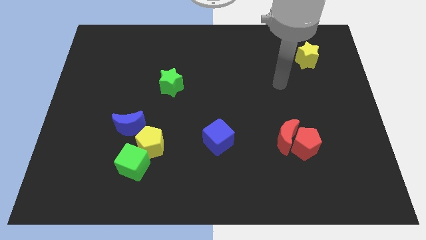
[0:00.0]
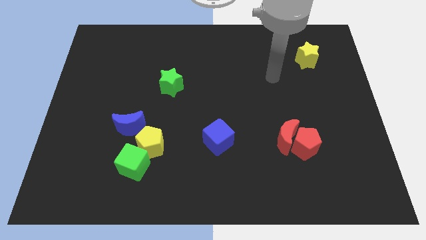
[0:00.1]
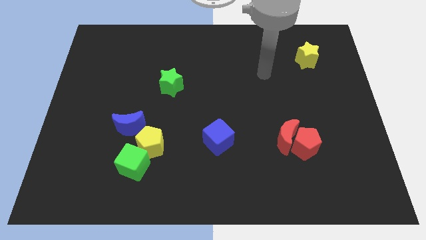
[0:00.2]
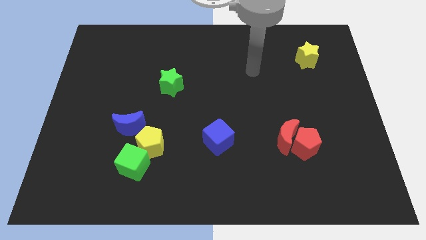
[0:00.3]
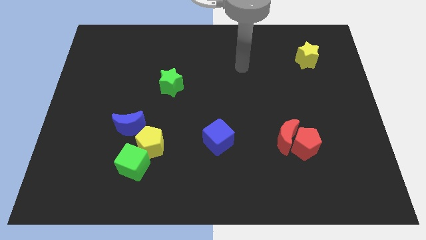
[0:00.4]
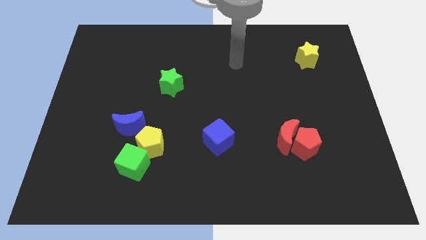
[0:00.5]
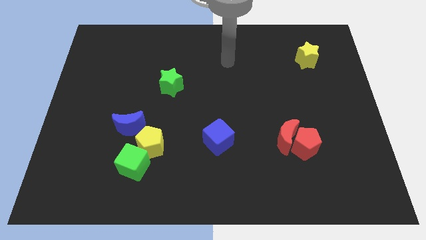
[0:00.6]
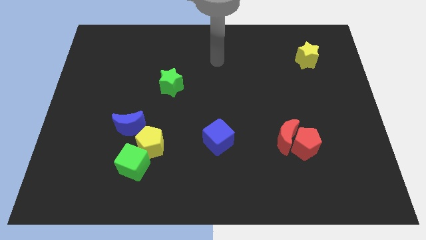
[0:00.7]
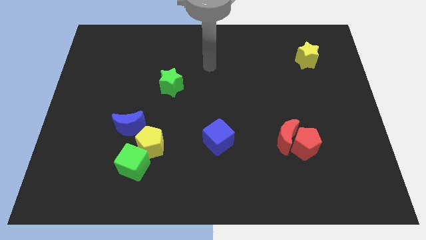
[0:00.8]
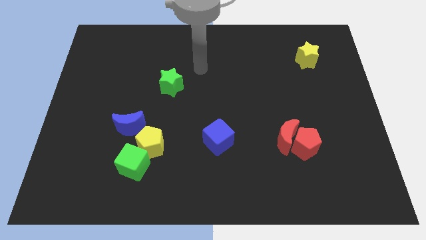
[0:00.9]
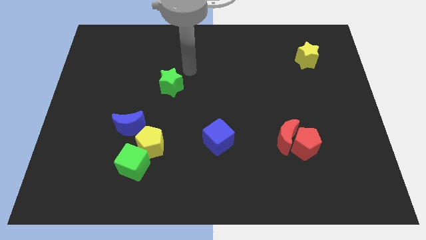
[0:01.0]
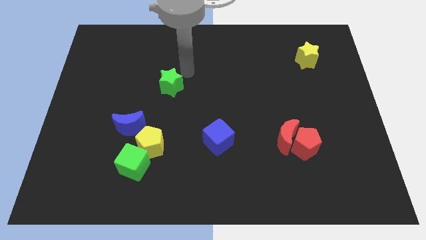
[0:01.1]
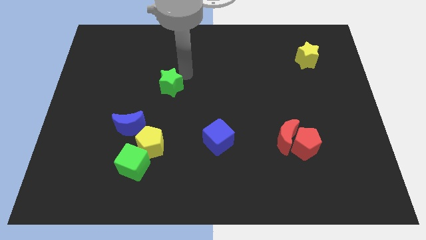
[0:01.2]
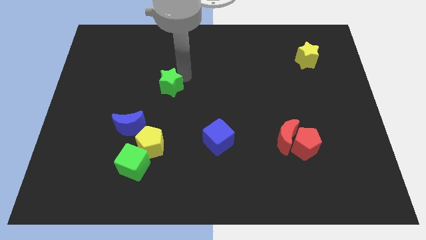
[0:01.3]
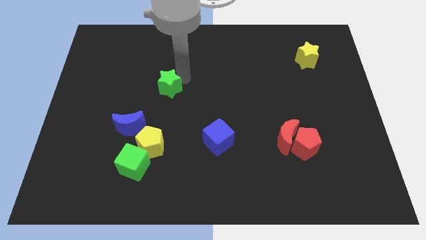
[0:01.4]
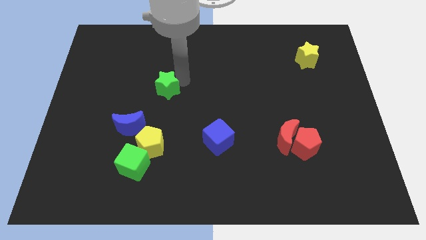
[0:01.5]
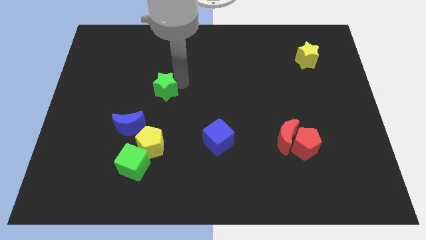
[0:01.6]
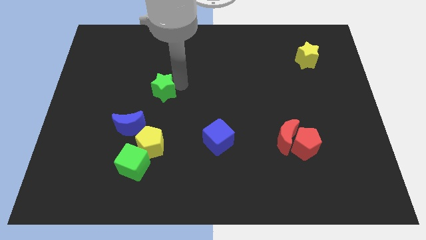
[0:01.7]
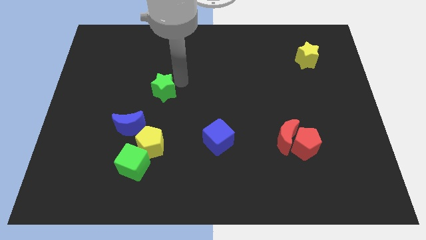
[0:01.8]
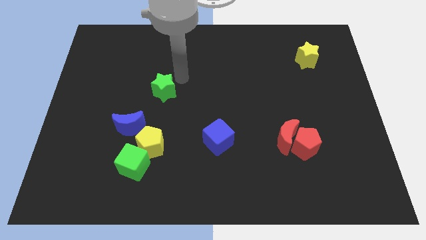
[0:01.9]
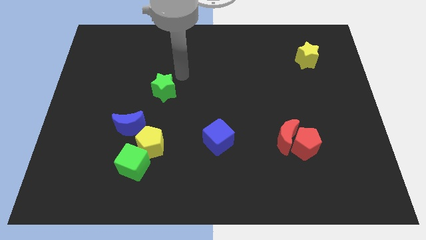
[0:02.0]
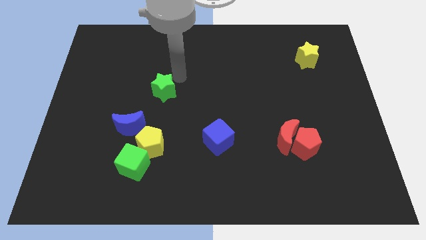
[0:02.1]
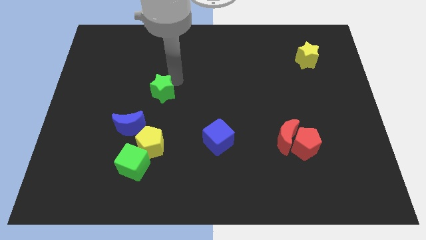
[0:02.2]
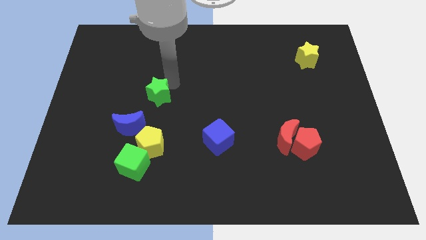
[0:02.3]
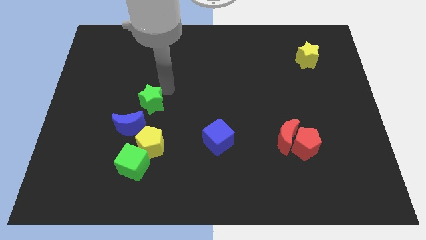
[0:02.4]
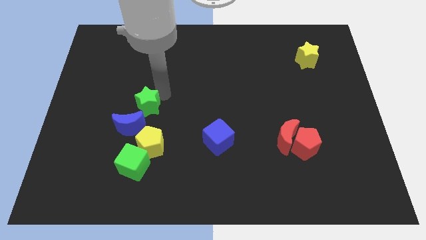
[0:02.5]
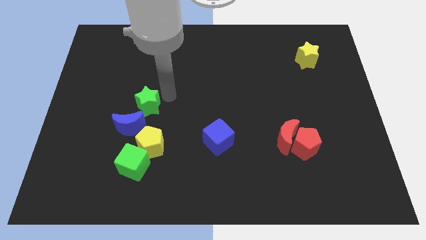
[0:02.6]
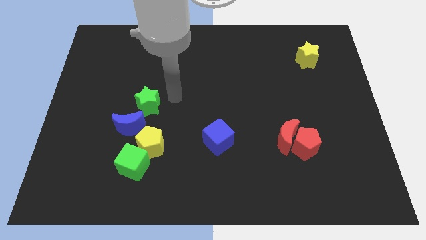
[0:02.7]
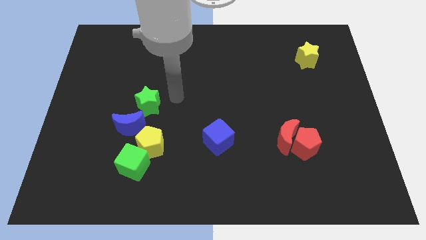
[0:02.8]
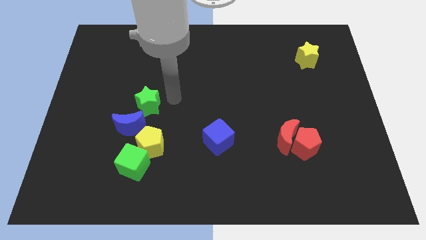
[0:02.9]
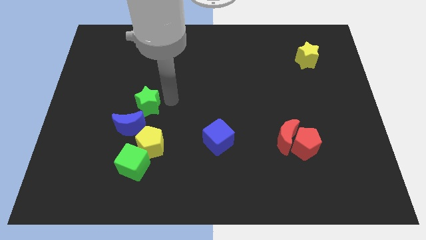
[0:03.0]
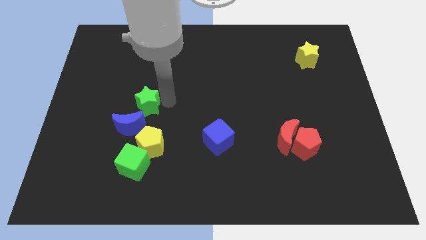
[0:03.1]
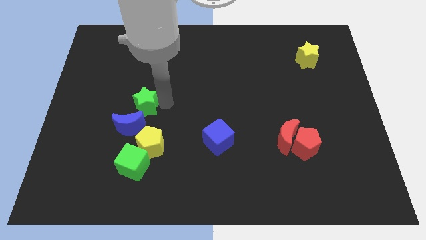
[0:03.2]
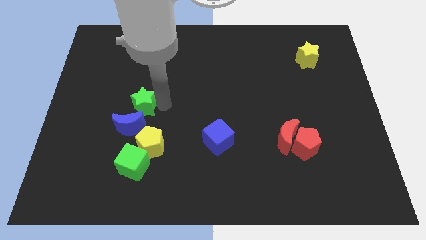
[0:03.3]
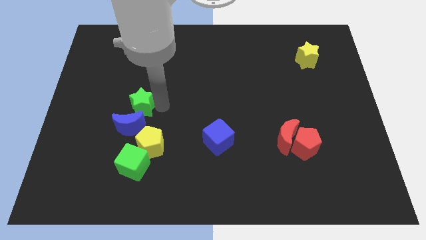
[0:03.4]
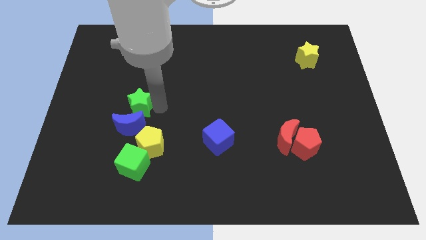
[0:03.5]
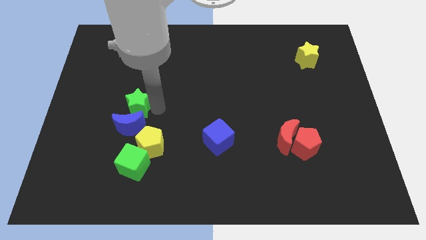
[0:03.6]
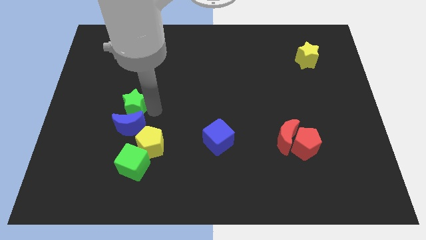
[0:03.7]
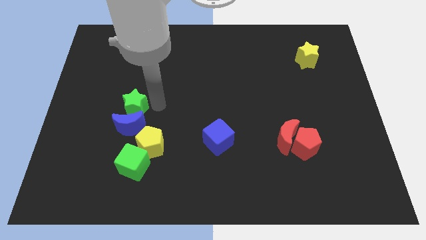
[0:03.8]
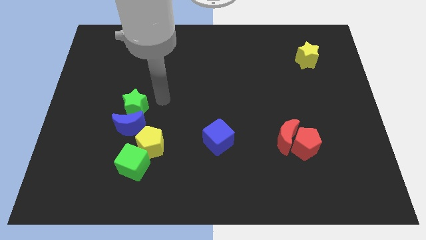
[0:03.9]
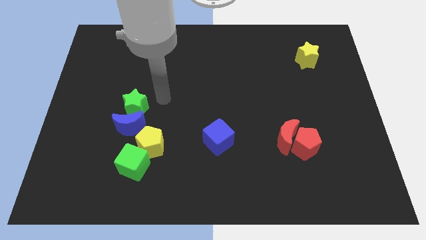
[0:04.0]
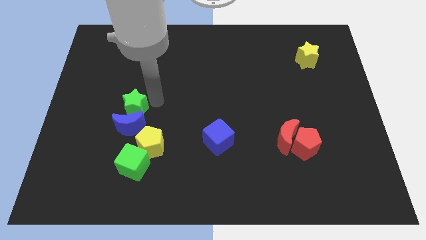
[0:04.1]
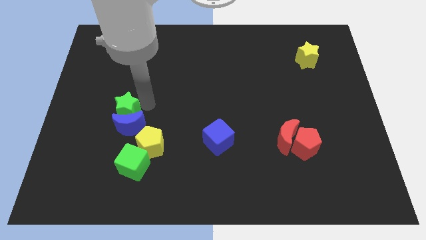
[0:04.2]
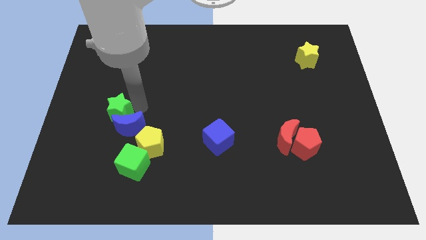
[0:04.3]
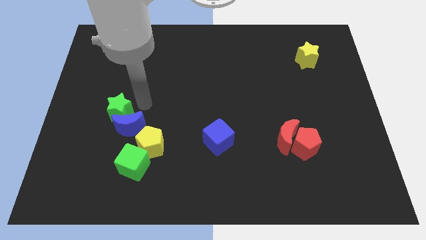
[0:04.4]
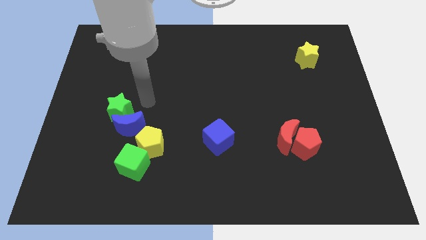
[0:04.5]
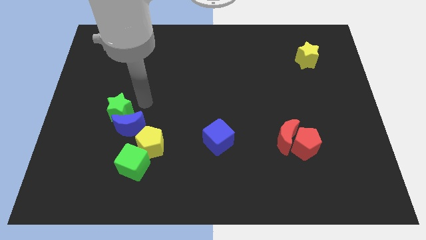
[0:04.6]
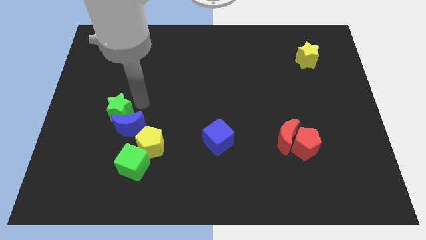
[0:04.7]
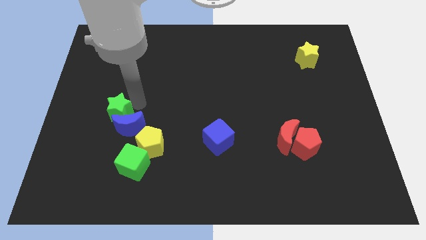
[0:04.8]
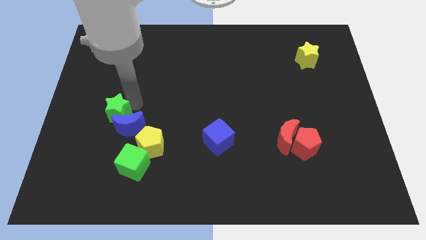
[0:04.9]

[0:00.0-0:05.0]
put the green star to the left of the blue moon

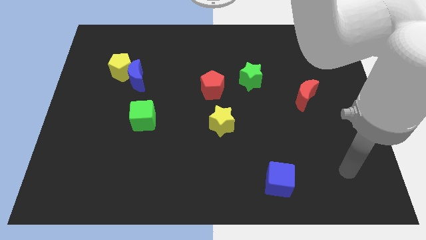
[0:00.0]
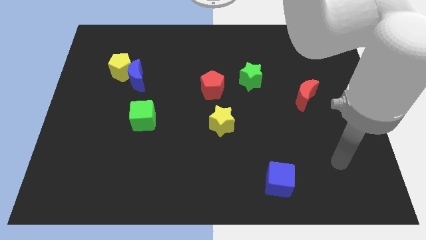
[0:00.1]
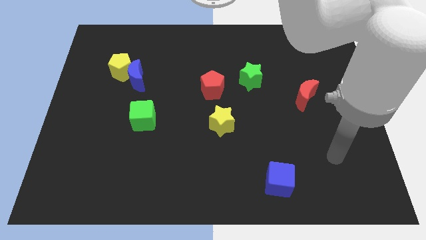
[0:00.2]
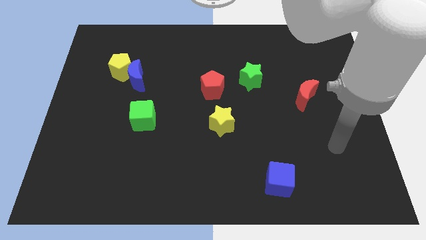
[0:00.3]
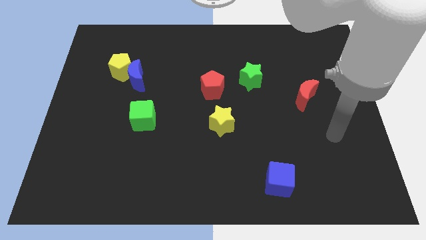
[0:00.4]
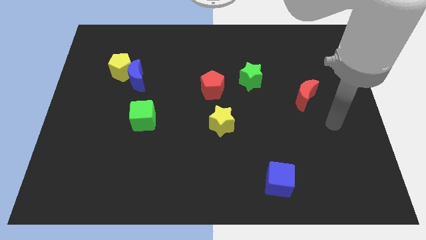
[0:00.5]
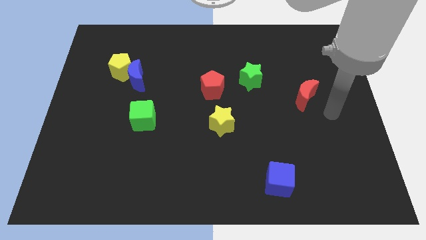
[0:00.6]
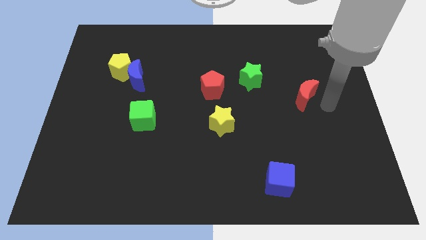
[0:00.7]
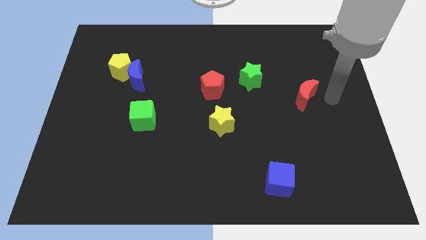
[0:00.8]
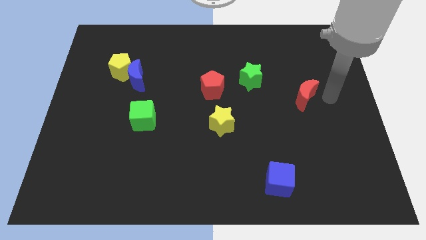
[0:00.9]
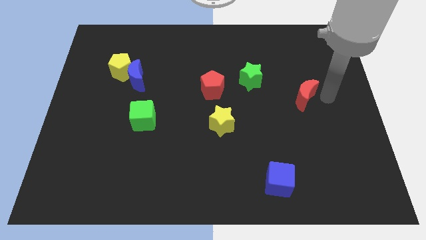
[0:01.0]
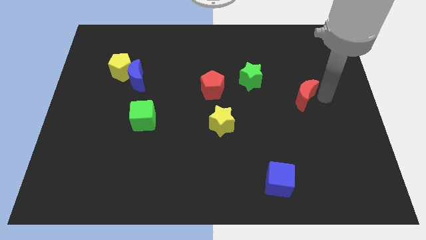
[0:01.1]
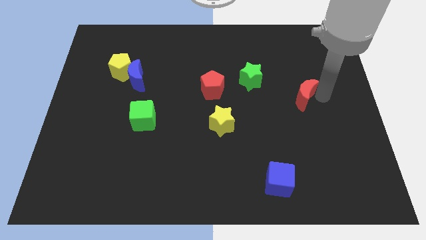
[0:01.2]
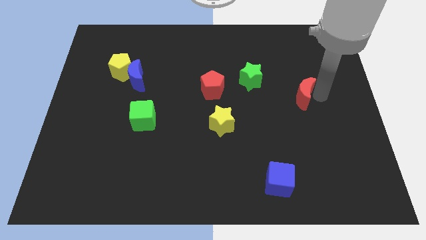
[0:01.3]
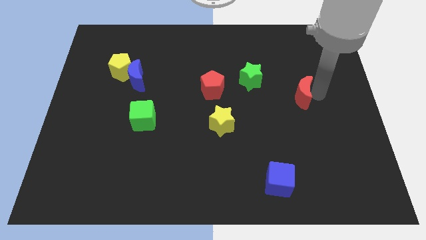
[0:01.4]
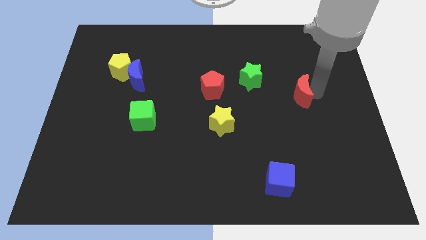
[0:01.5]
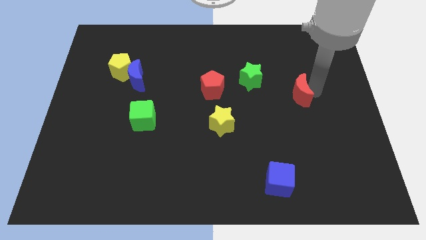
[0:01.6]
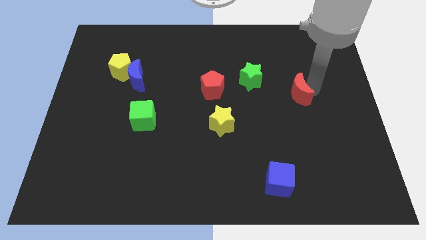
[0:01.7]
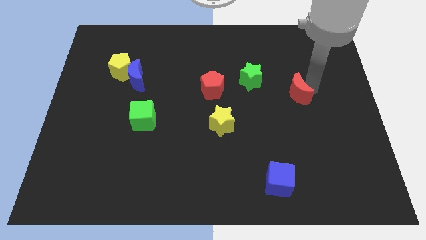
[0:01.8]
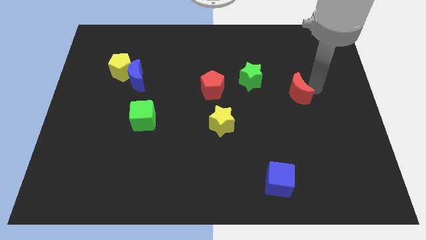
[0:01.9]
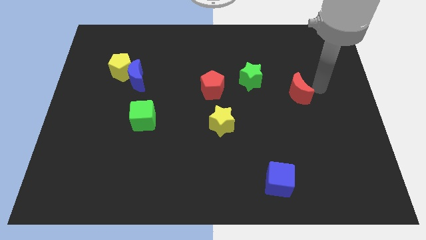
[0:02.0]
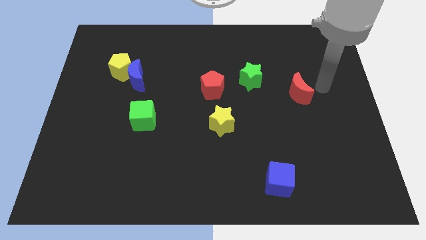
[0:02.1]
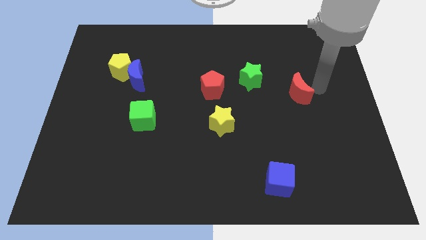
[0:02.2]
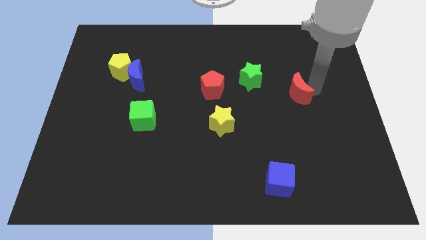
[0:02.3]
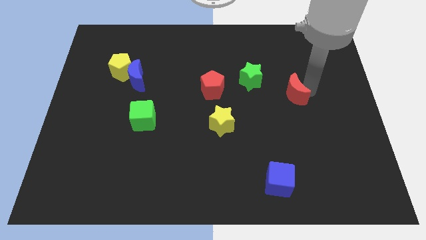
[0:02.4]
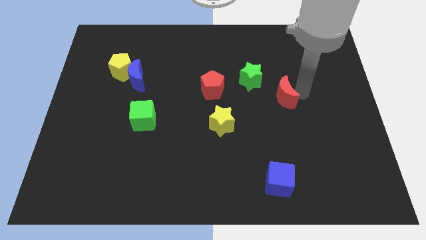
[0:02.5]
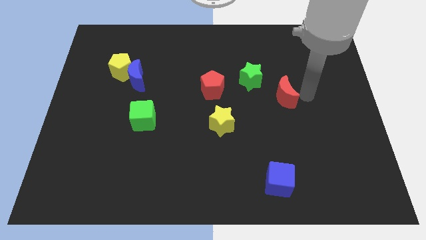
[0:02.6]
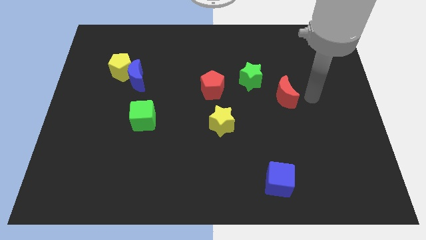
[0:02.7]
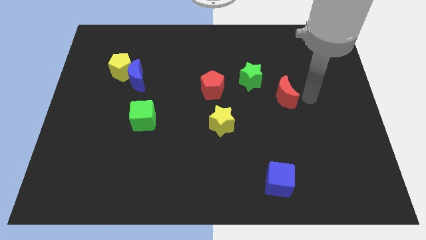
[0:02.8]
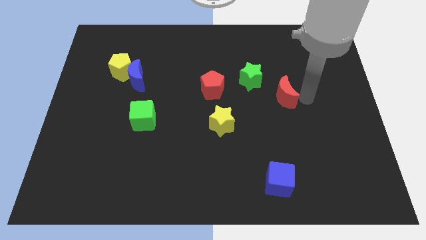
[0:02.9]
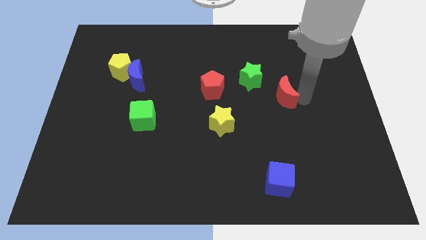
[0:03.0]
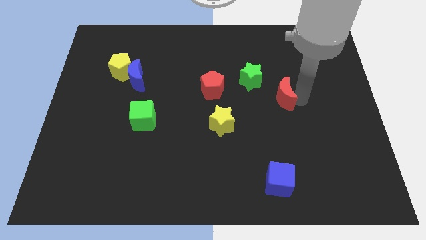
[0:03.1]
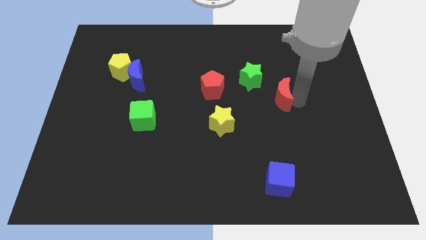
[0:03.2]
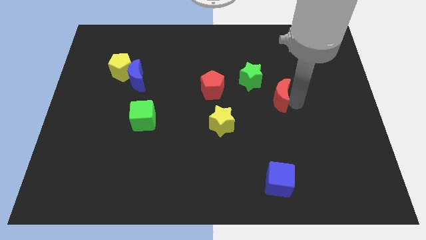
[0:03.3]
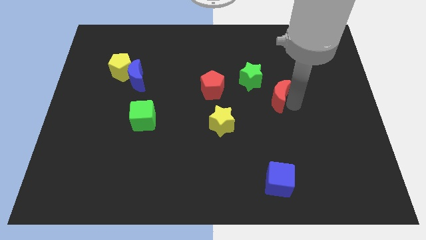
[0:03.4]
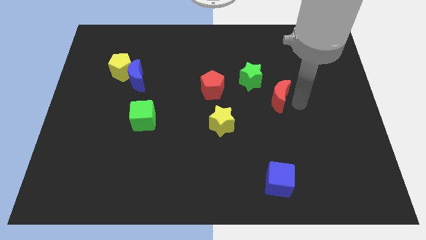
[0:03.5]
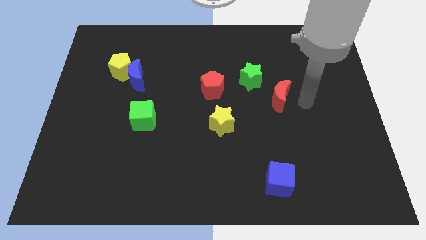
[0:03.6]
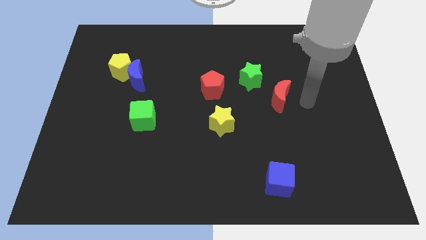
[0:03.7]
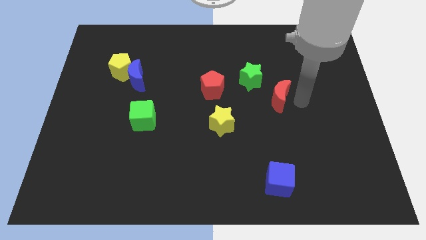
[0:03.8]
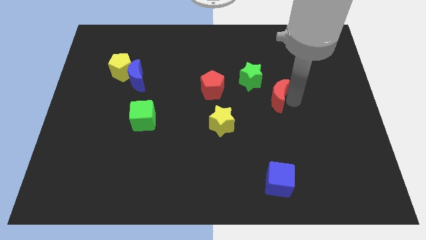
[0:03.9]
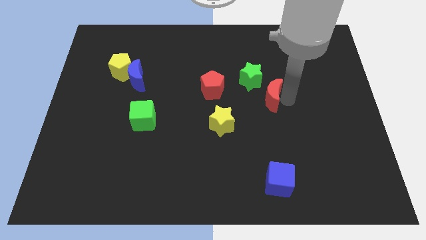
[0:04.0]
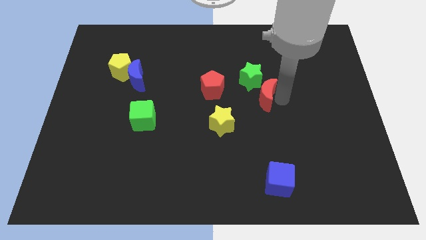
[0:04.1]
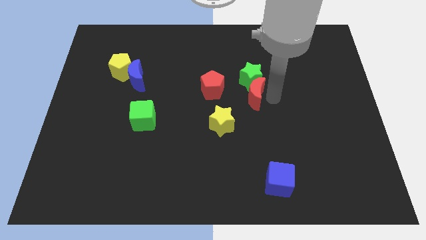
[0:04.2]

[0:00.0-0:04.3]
put the red moon to the bottom left side of the green star
